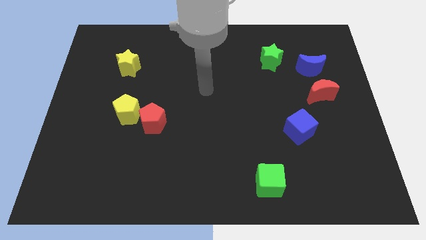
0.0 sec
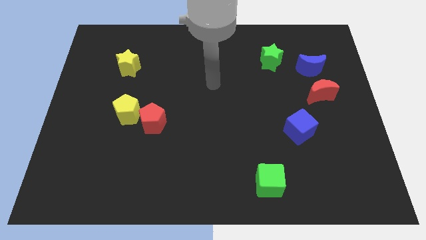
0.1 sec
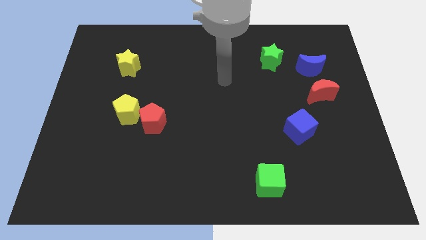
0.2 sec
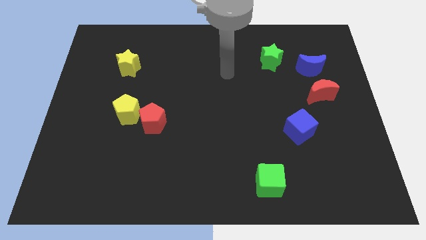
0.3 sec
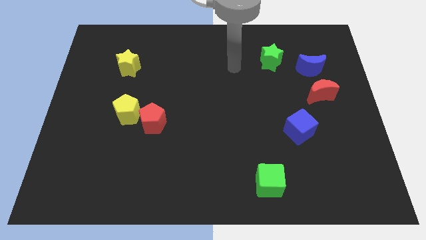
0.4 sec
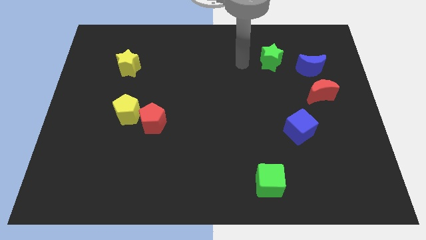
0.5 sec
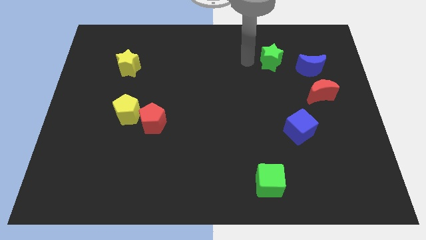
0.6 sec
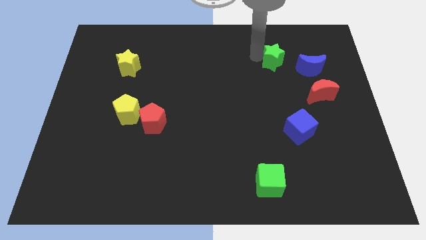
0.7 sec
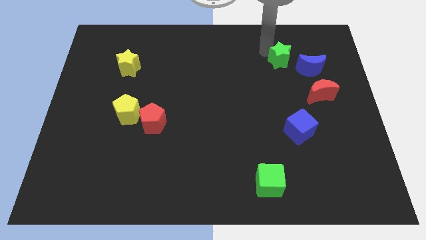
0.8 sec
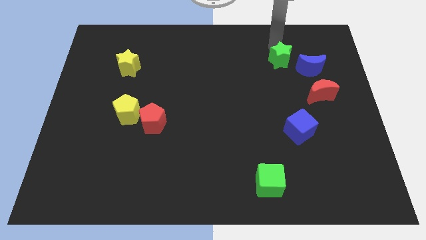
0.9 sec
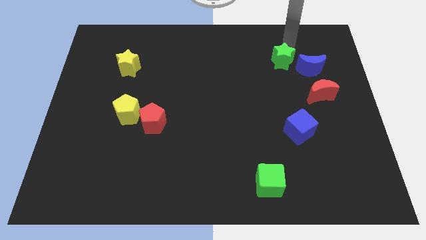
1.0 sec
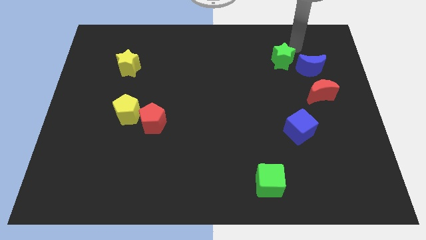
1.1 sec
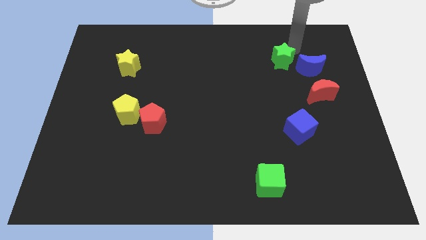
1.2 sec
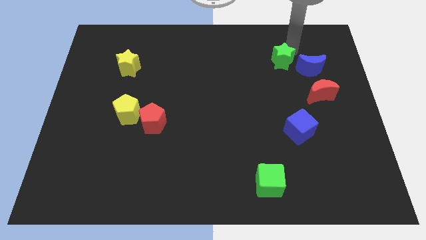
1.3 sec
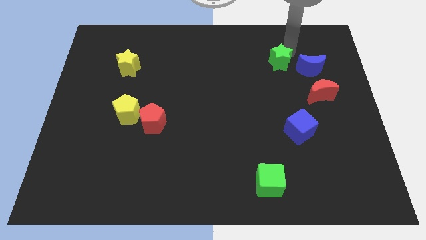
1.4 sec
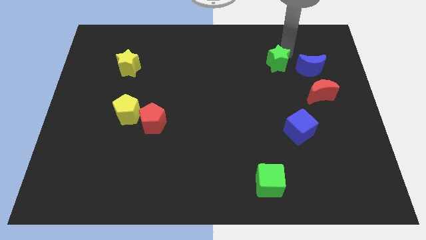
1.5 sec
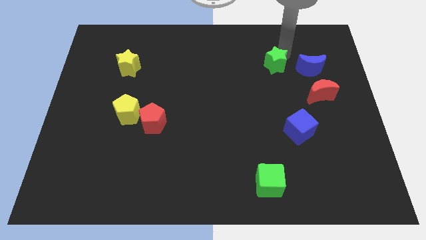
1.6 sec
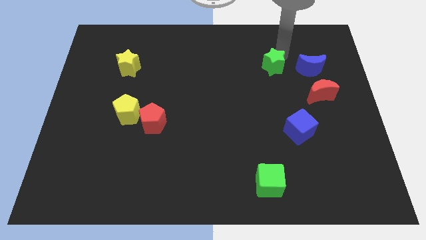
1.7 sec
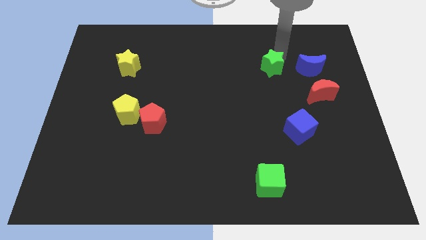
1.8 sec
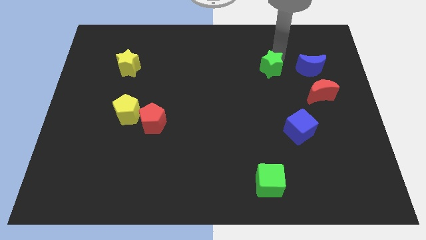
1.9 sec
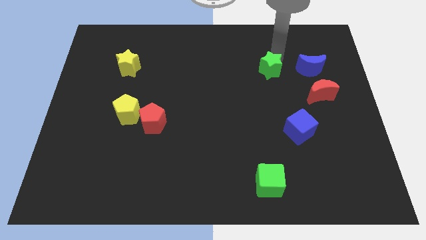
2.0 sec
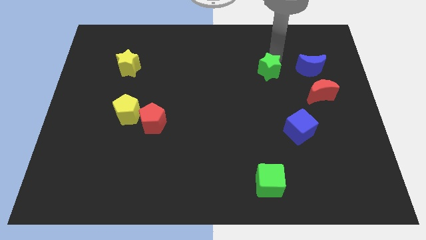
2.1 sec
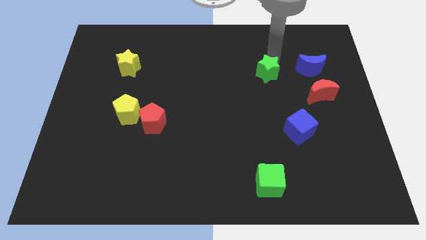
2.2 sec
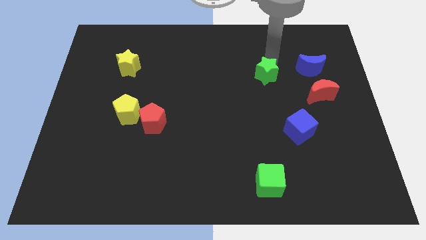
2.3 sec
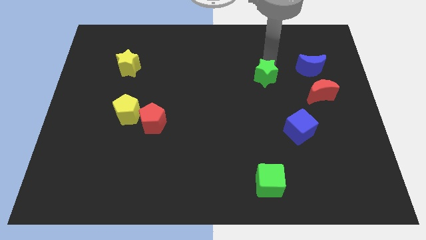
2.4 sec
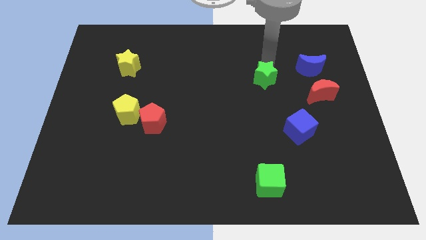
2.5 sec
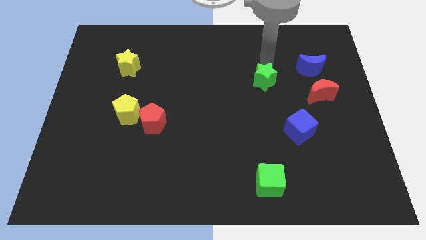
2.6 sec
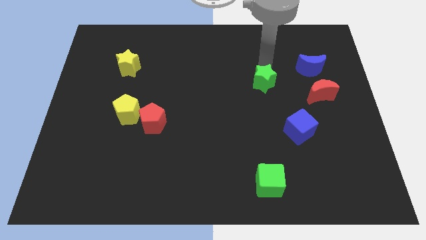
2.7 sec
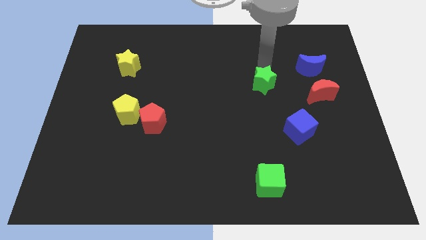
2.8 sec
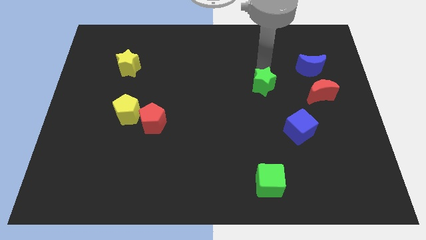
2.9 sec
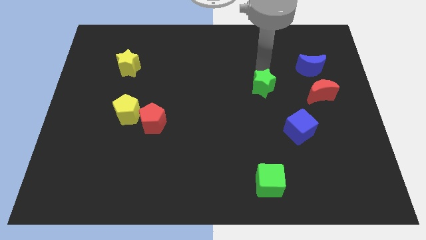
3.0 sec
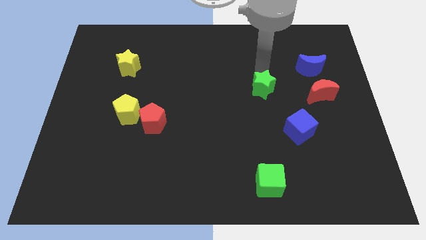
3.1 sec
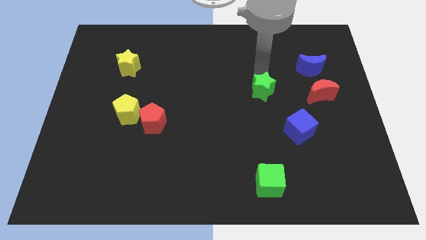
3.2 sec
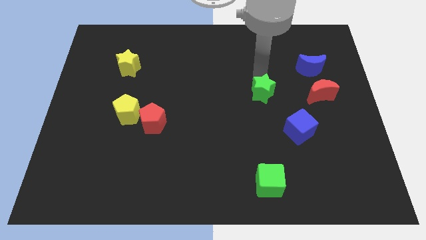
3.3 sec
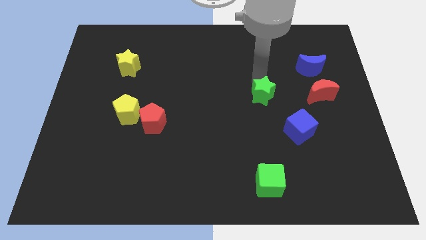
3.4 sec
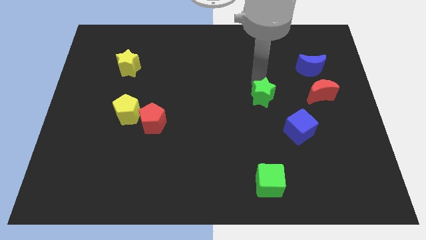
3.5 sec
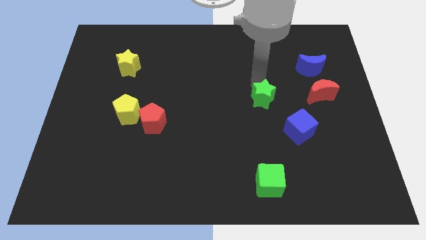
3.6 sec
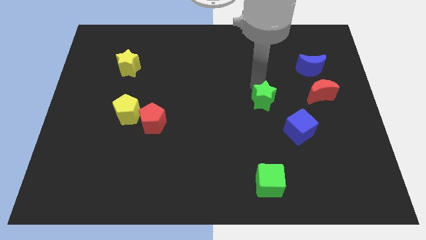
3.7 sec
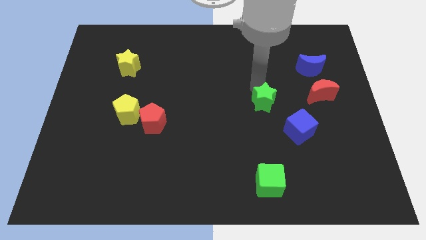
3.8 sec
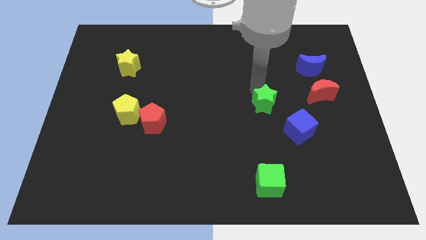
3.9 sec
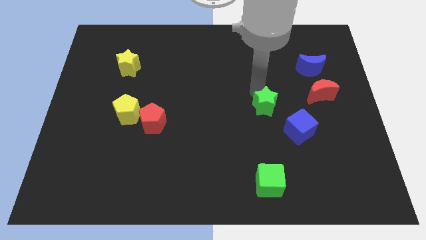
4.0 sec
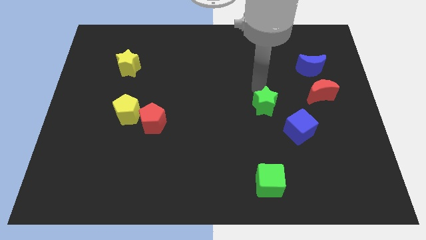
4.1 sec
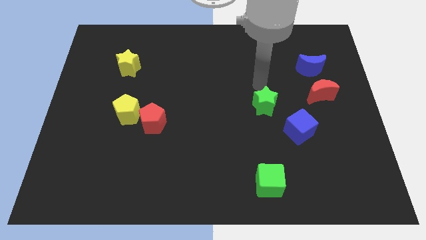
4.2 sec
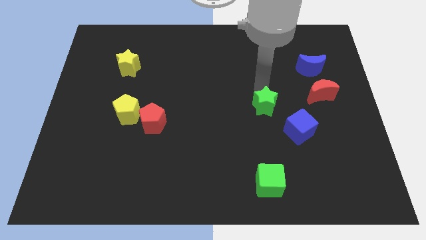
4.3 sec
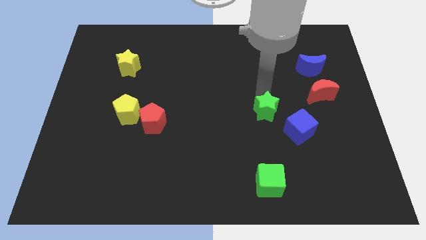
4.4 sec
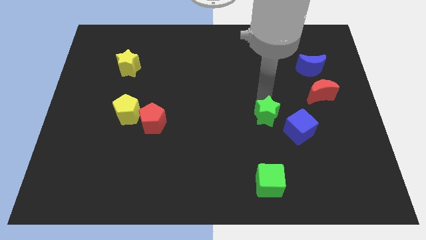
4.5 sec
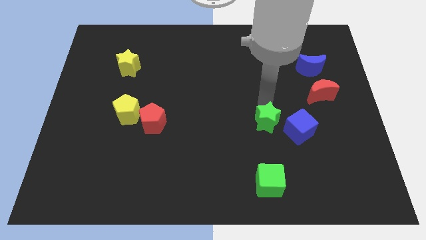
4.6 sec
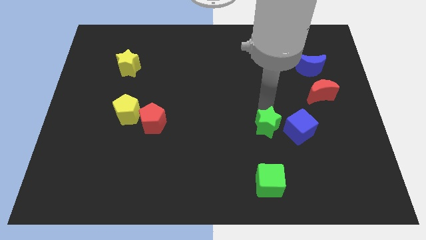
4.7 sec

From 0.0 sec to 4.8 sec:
slide the green star downwards

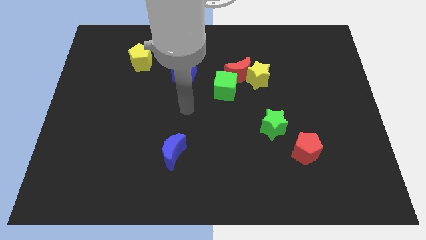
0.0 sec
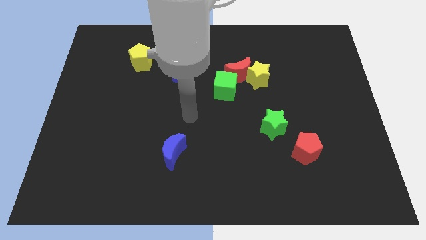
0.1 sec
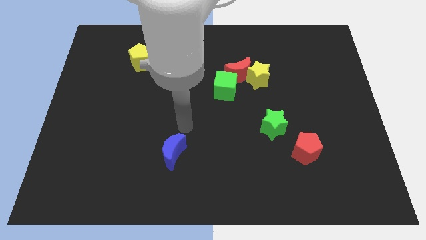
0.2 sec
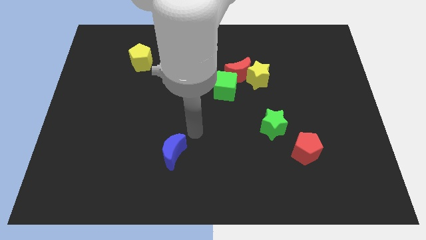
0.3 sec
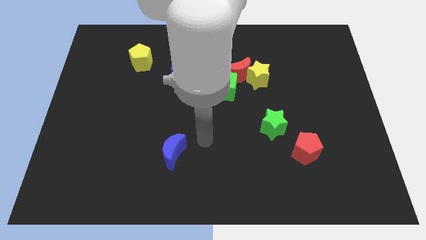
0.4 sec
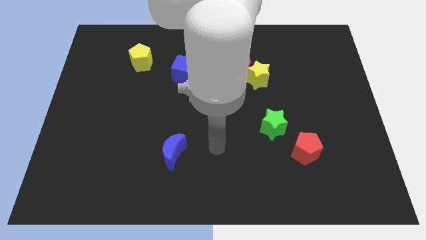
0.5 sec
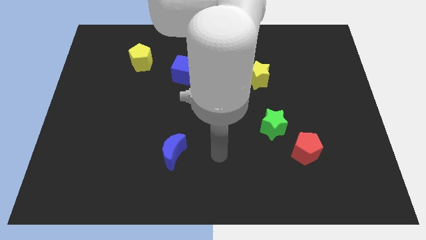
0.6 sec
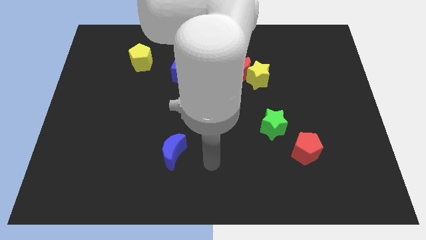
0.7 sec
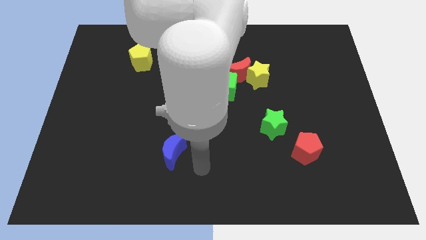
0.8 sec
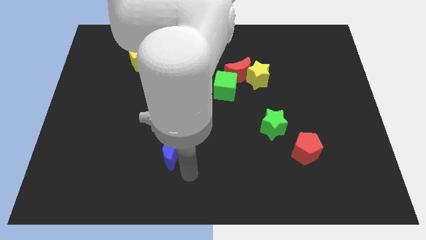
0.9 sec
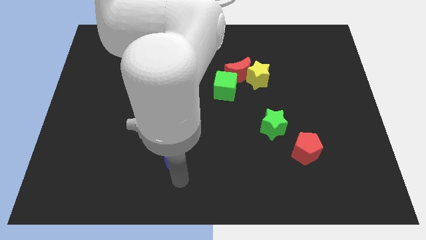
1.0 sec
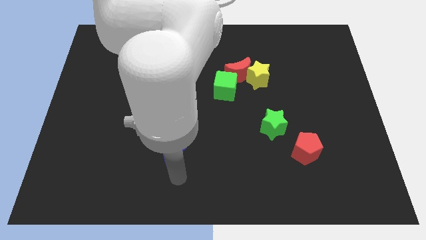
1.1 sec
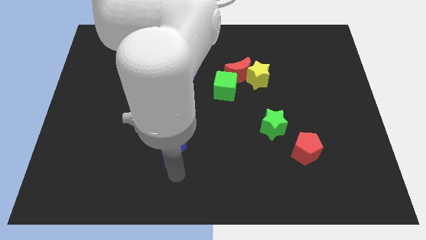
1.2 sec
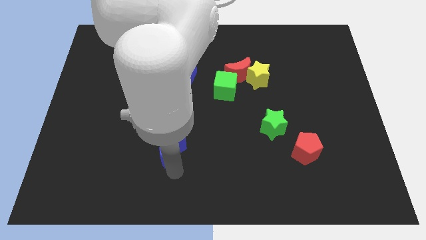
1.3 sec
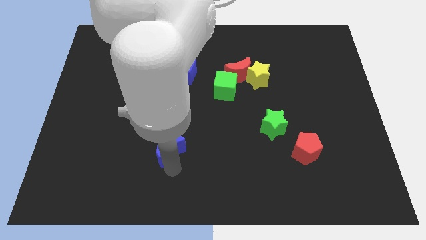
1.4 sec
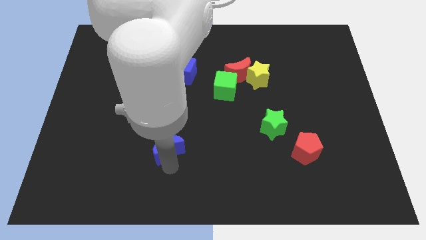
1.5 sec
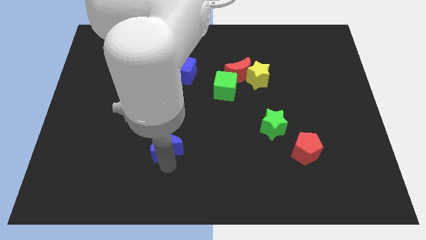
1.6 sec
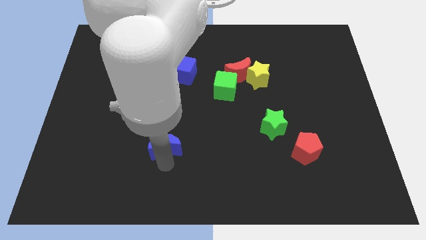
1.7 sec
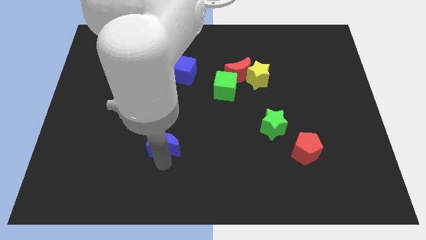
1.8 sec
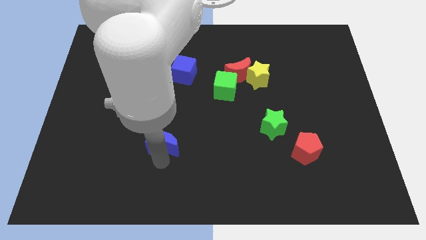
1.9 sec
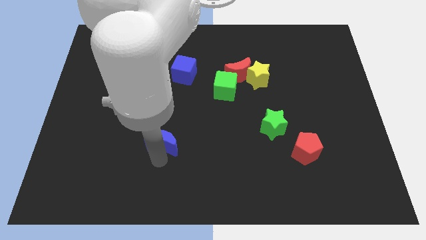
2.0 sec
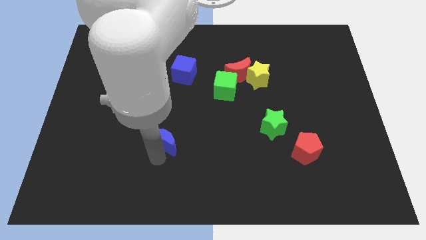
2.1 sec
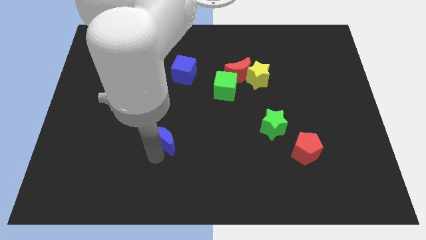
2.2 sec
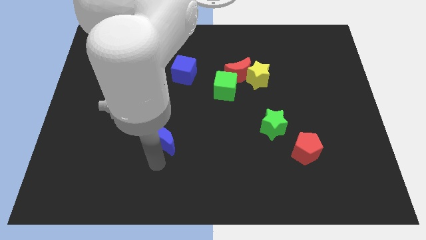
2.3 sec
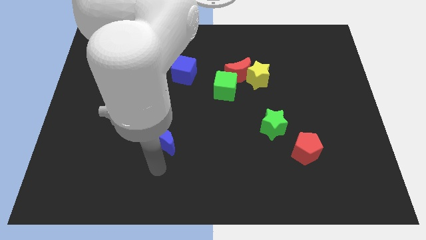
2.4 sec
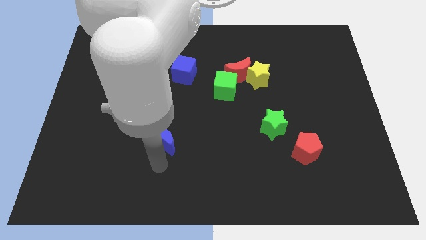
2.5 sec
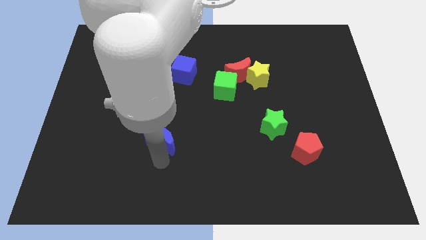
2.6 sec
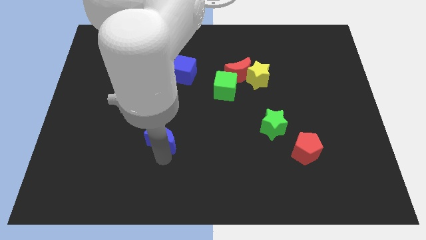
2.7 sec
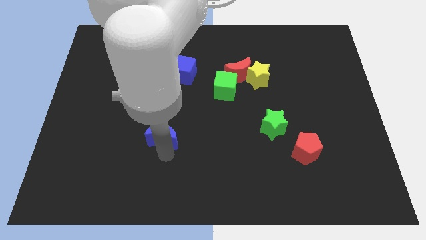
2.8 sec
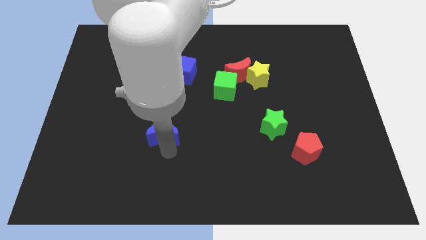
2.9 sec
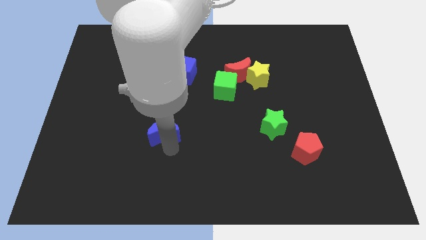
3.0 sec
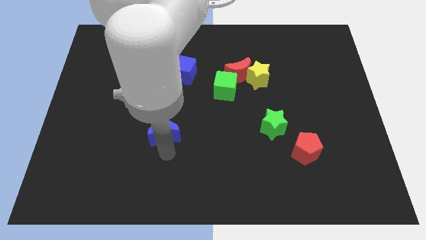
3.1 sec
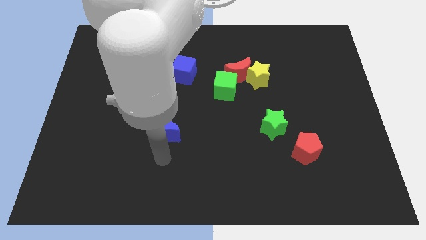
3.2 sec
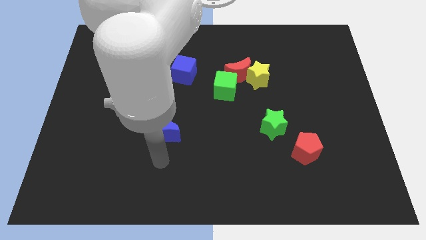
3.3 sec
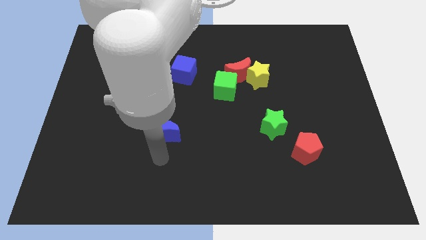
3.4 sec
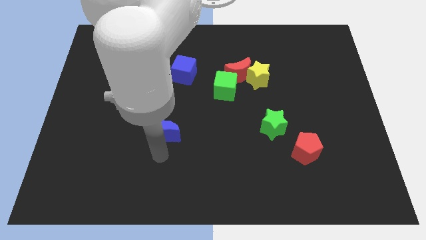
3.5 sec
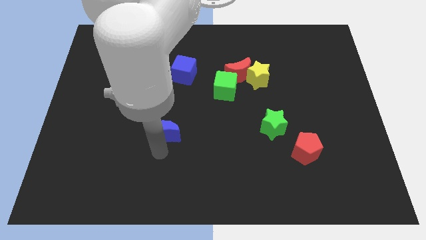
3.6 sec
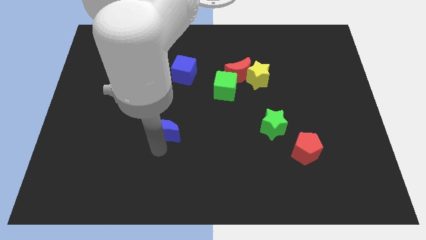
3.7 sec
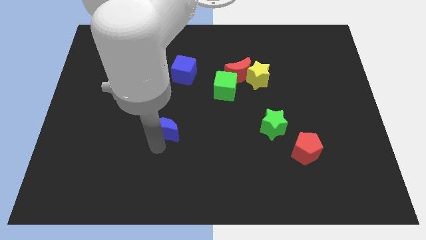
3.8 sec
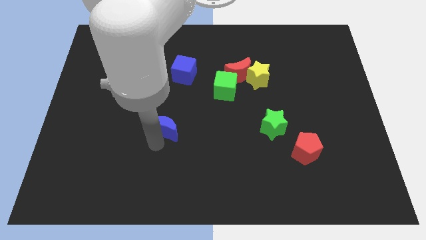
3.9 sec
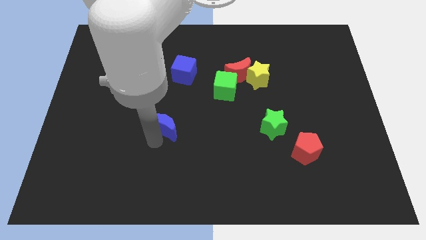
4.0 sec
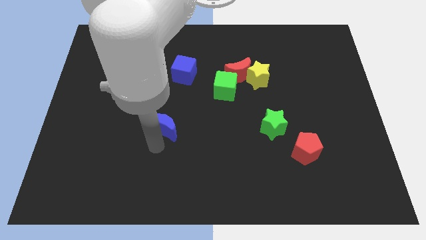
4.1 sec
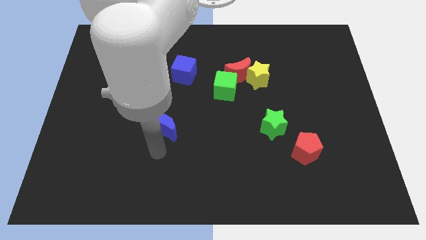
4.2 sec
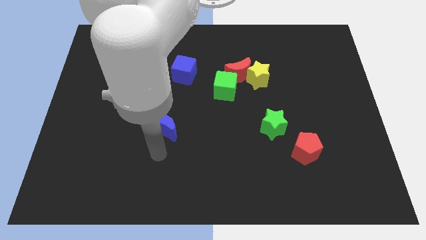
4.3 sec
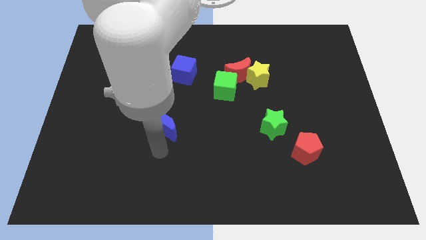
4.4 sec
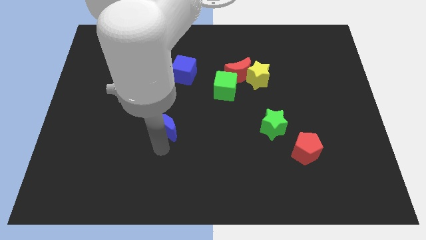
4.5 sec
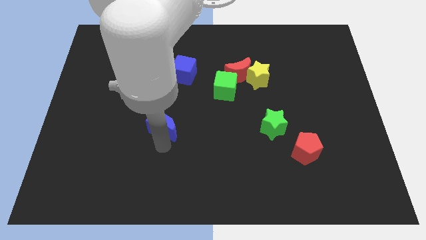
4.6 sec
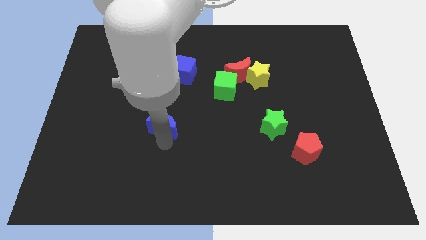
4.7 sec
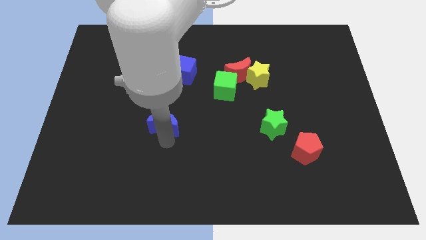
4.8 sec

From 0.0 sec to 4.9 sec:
slightly slide the blue moon up
